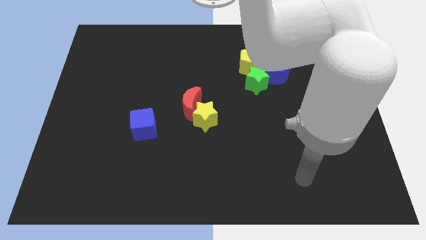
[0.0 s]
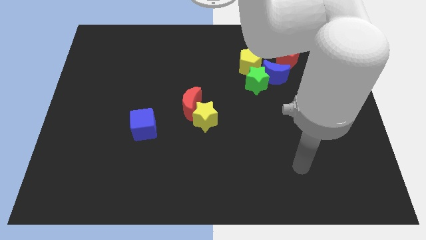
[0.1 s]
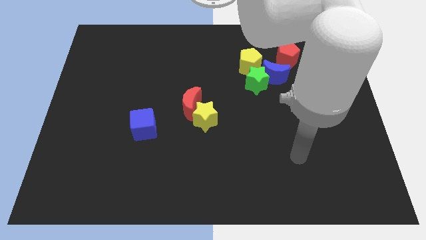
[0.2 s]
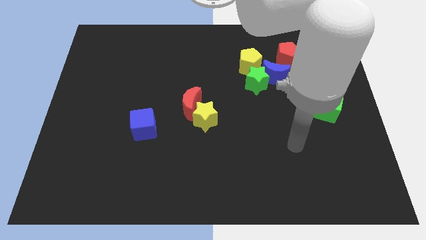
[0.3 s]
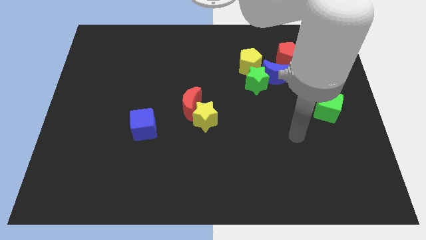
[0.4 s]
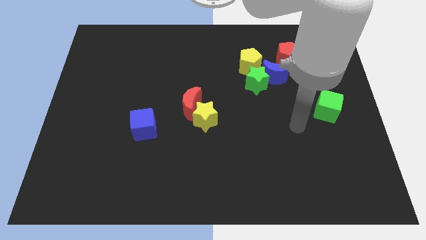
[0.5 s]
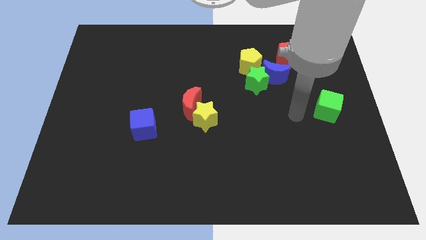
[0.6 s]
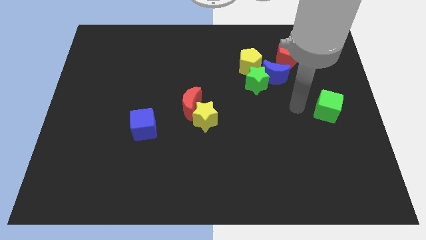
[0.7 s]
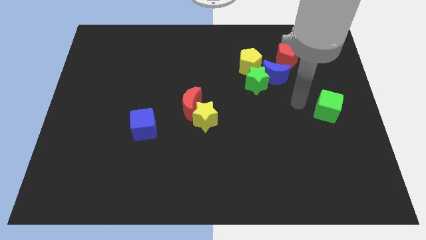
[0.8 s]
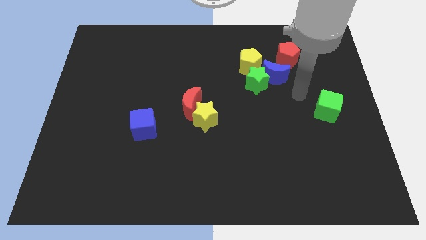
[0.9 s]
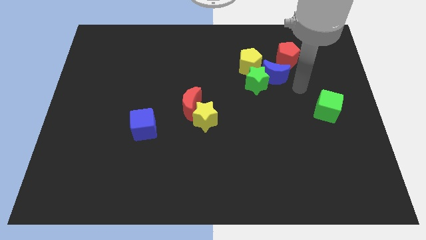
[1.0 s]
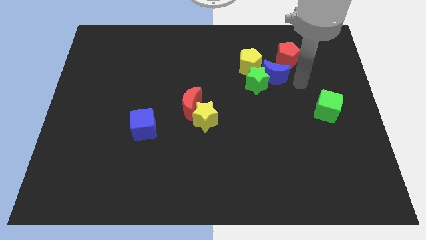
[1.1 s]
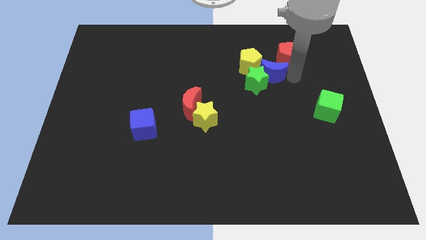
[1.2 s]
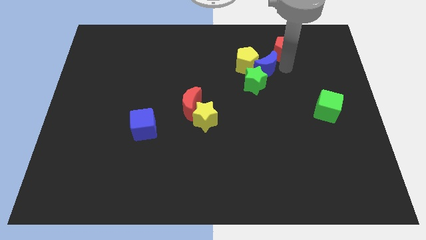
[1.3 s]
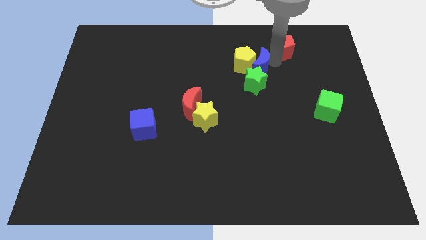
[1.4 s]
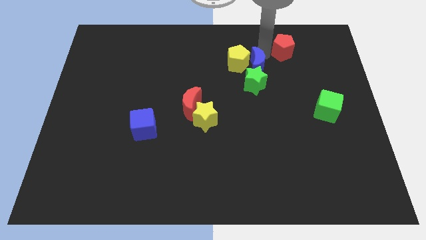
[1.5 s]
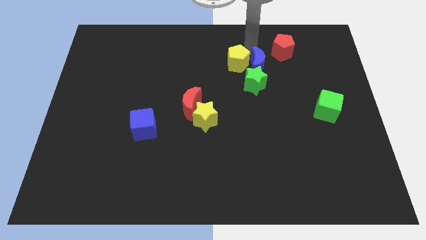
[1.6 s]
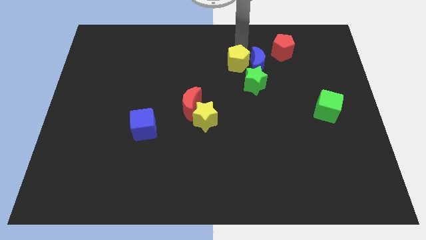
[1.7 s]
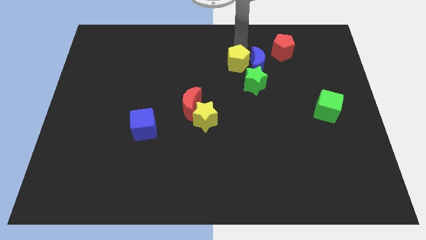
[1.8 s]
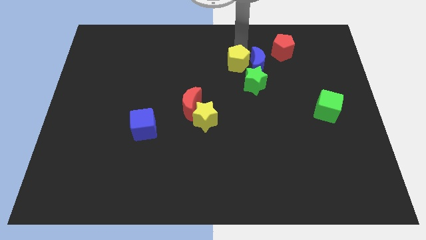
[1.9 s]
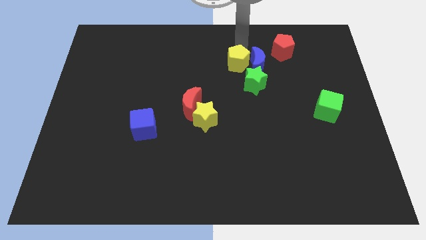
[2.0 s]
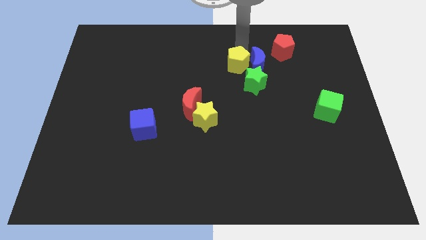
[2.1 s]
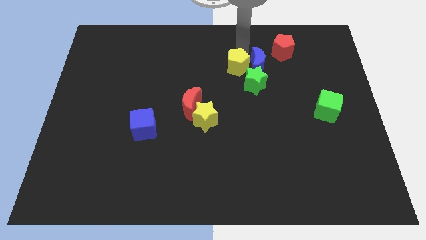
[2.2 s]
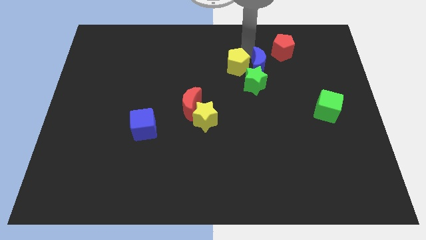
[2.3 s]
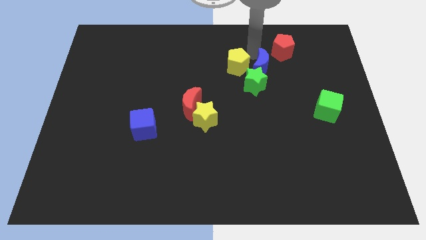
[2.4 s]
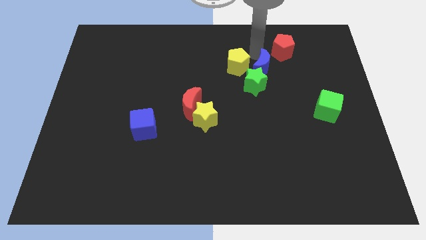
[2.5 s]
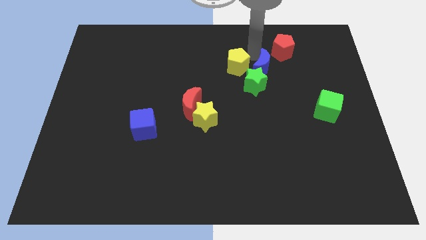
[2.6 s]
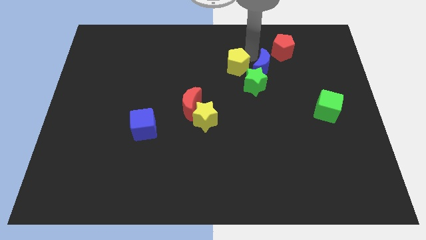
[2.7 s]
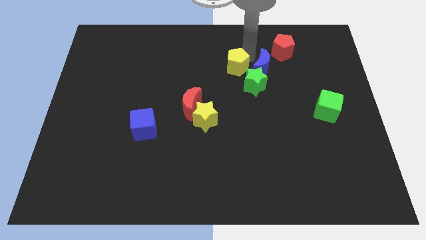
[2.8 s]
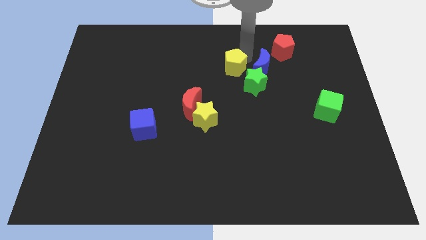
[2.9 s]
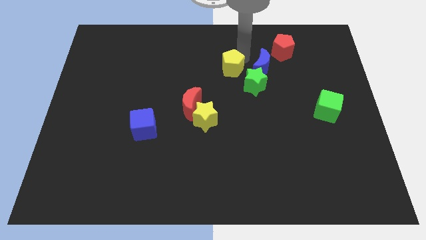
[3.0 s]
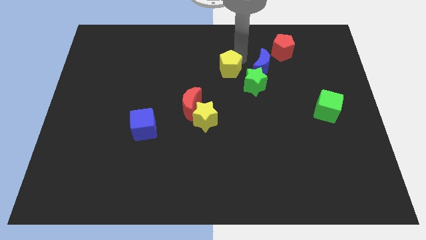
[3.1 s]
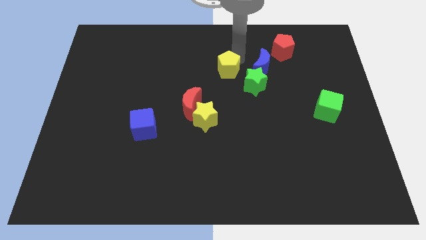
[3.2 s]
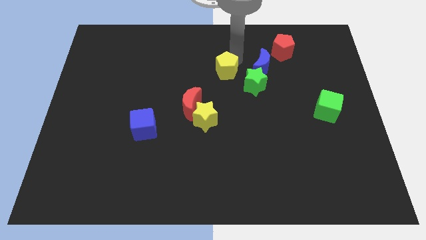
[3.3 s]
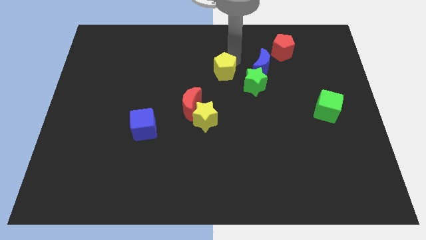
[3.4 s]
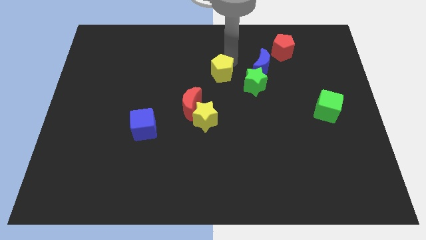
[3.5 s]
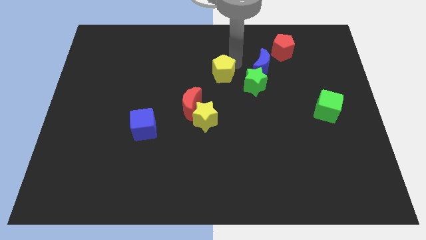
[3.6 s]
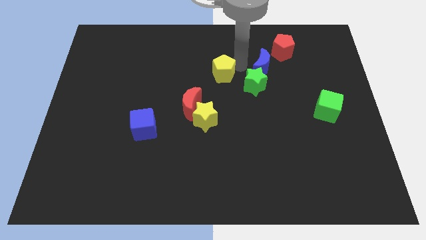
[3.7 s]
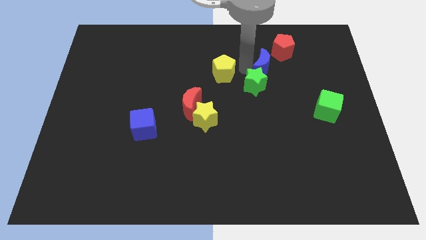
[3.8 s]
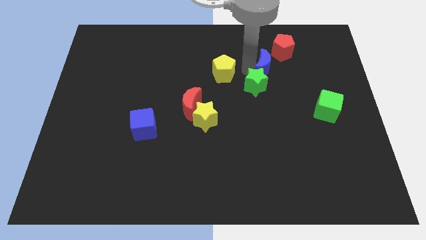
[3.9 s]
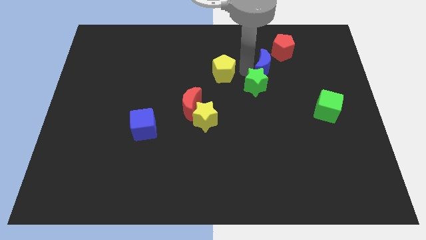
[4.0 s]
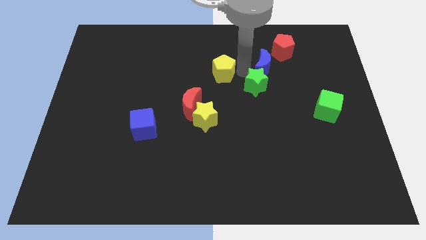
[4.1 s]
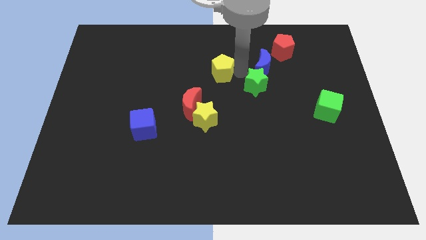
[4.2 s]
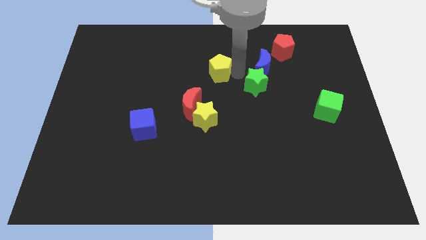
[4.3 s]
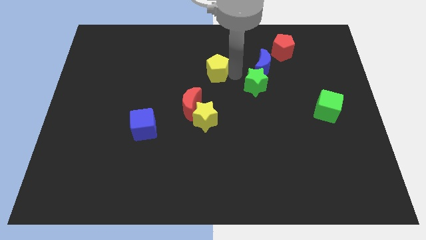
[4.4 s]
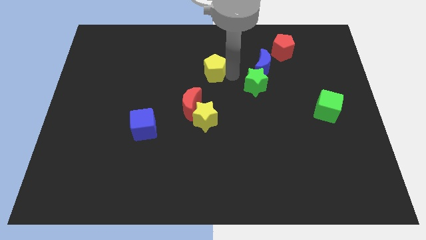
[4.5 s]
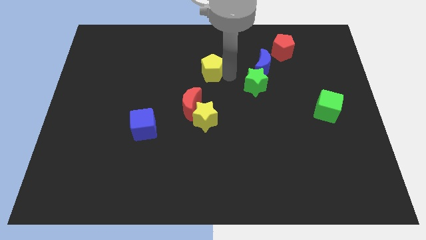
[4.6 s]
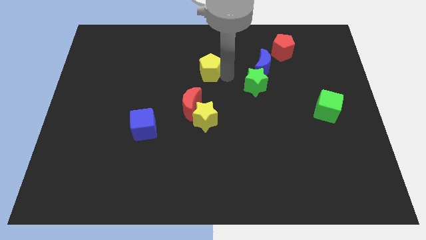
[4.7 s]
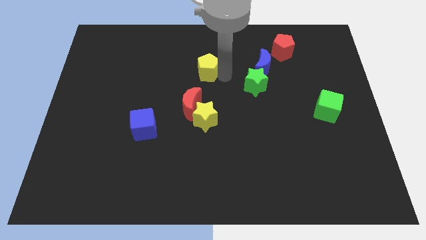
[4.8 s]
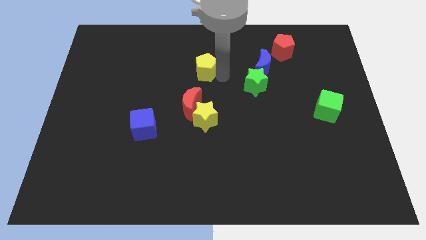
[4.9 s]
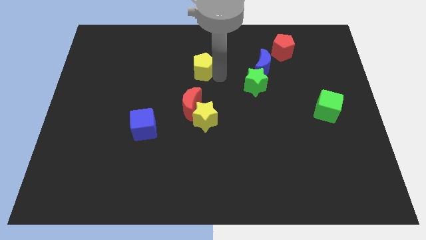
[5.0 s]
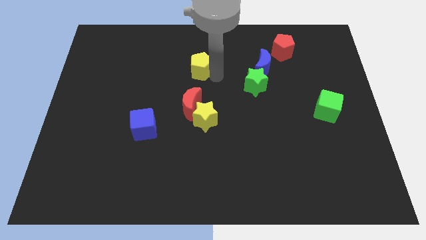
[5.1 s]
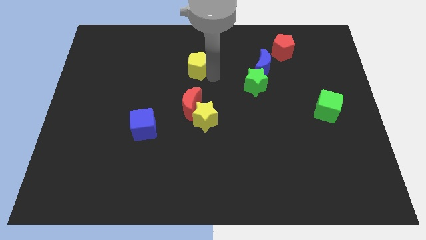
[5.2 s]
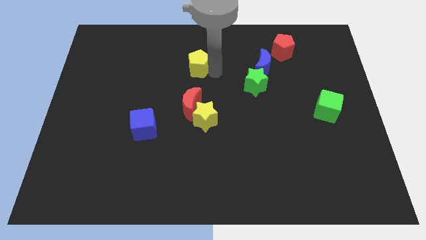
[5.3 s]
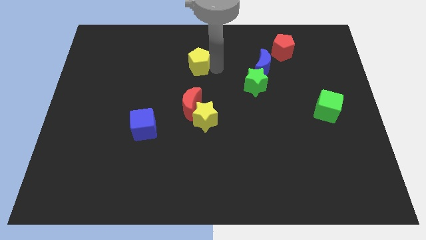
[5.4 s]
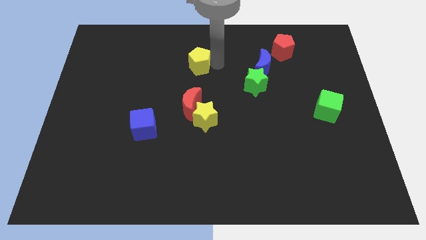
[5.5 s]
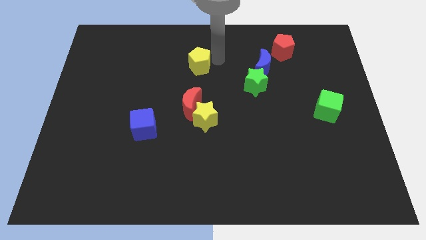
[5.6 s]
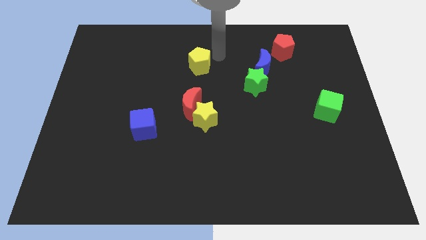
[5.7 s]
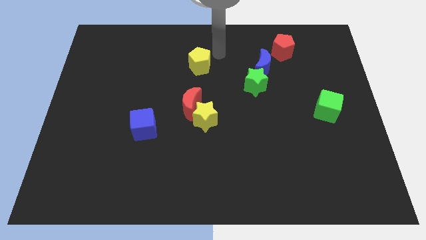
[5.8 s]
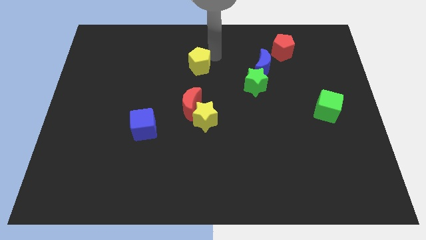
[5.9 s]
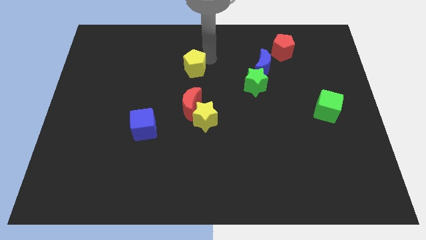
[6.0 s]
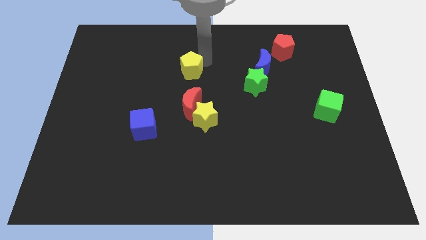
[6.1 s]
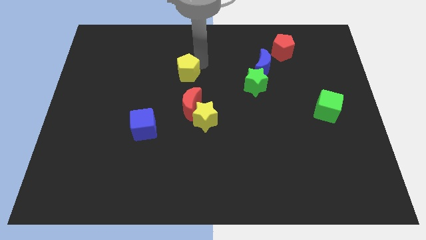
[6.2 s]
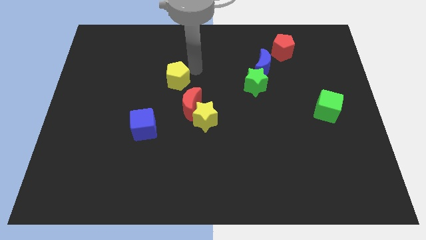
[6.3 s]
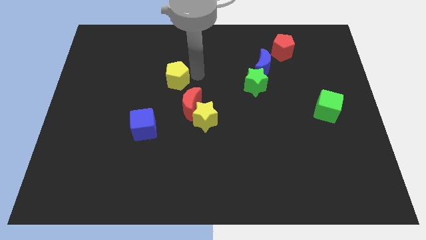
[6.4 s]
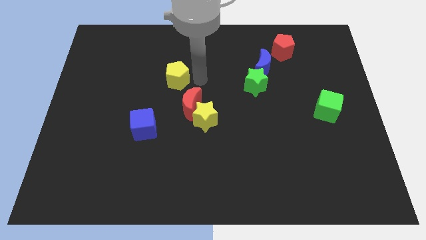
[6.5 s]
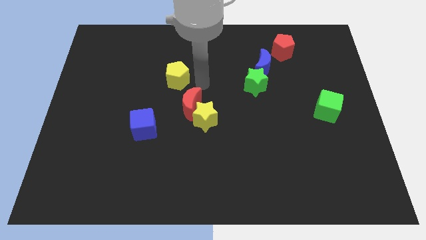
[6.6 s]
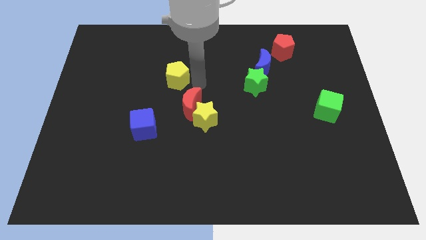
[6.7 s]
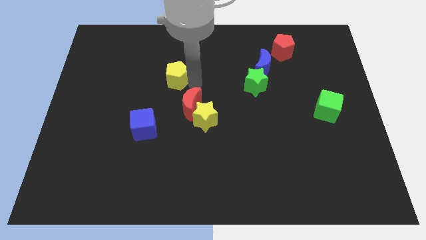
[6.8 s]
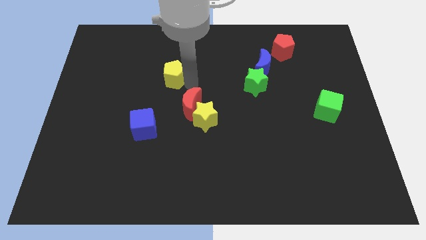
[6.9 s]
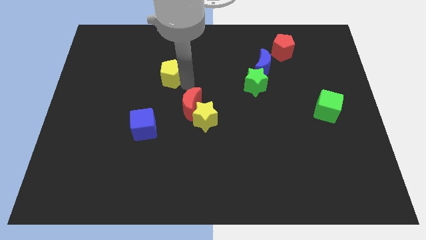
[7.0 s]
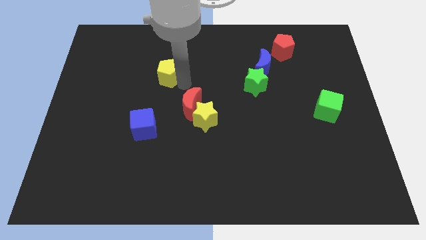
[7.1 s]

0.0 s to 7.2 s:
slide the yellow pentagon left

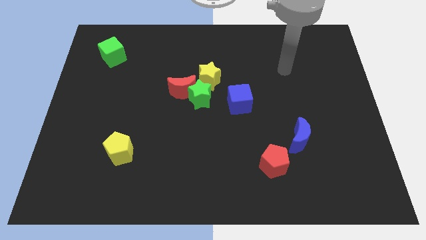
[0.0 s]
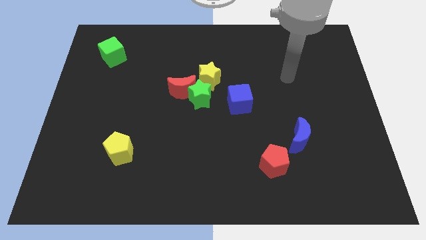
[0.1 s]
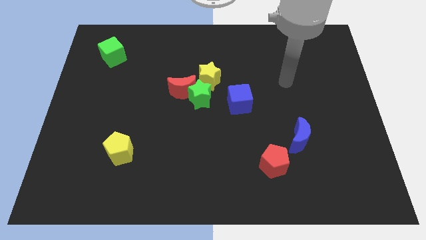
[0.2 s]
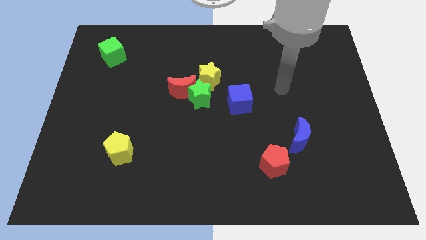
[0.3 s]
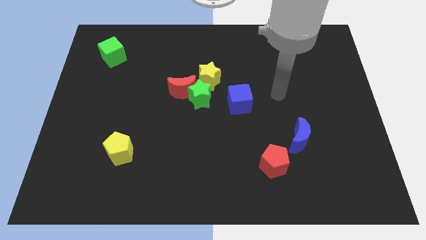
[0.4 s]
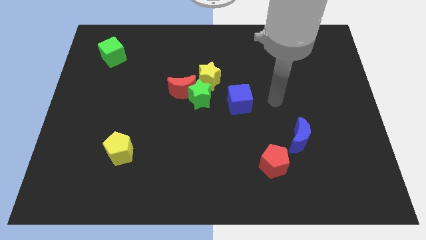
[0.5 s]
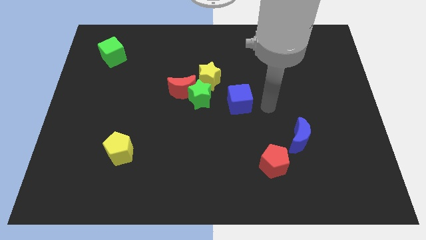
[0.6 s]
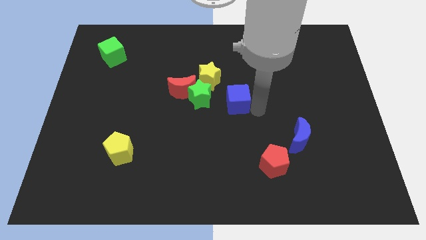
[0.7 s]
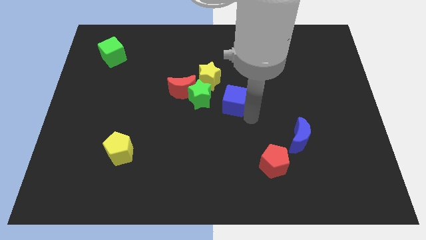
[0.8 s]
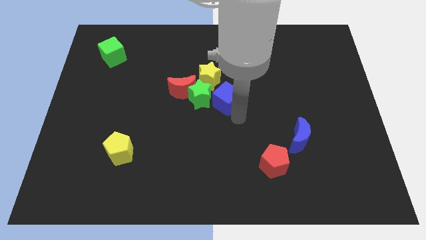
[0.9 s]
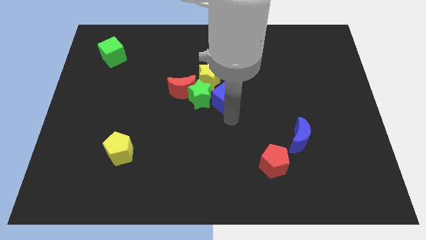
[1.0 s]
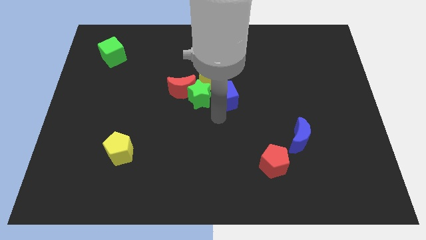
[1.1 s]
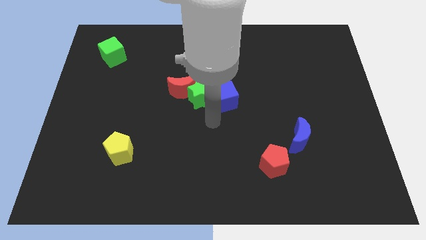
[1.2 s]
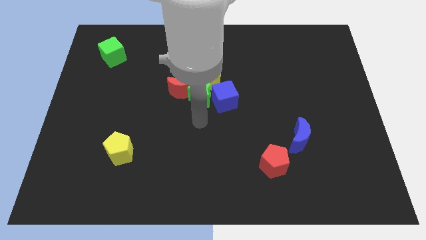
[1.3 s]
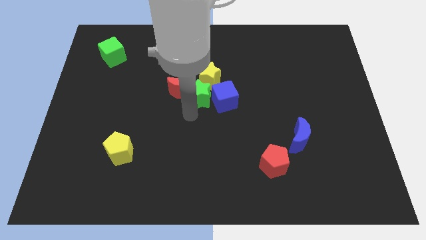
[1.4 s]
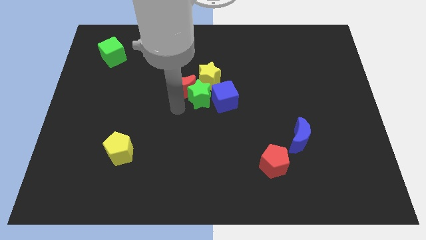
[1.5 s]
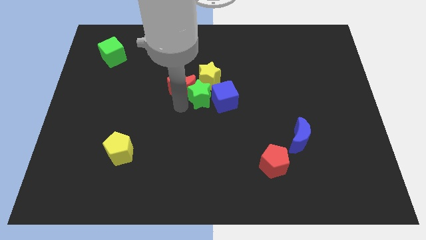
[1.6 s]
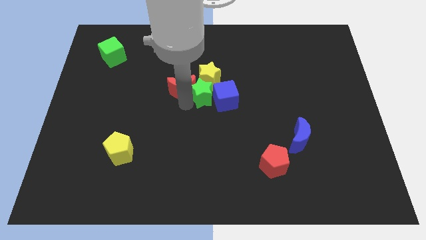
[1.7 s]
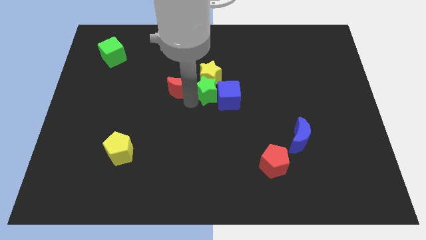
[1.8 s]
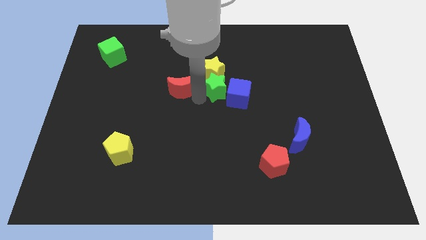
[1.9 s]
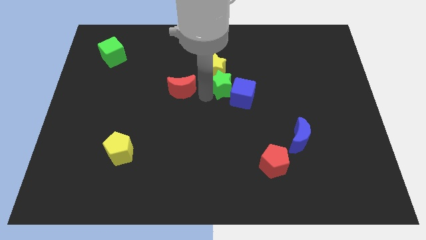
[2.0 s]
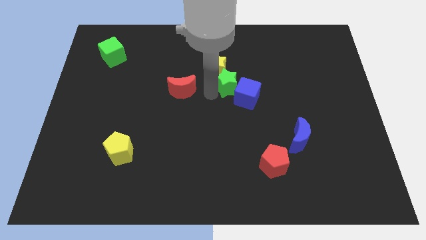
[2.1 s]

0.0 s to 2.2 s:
slightly slide the green star diagonally upwards and right
